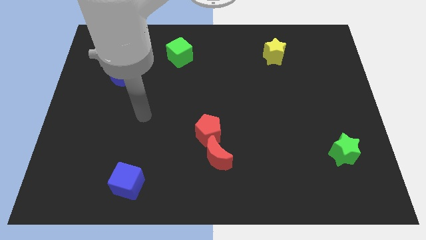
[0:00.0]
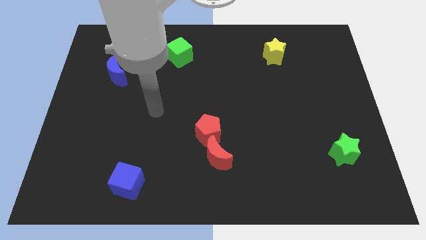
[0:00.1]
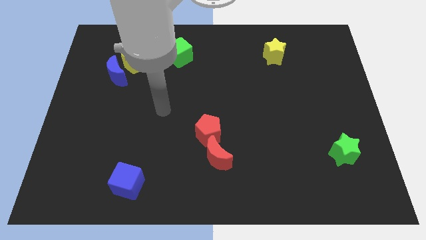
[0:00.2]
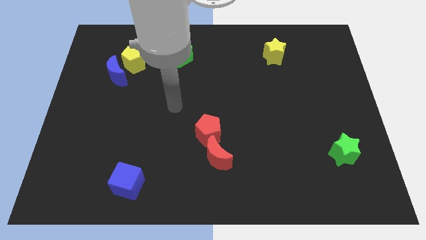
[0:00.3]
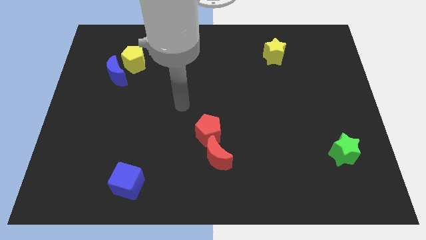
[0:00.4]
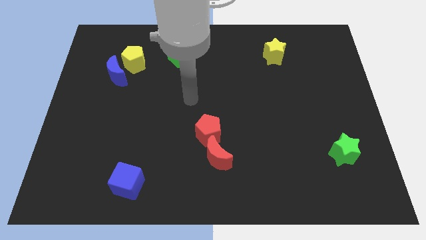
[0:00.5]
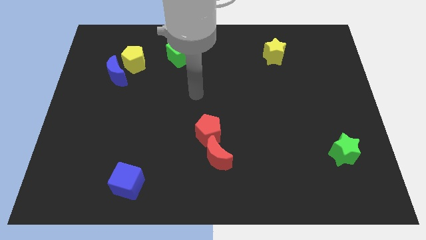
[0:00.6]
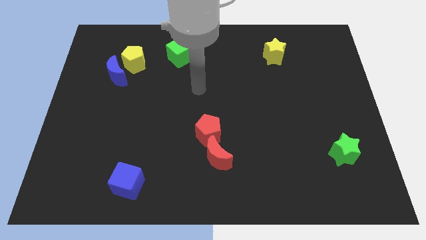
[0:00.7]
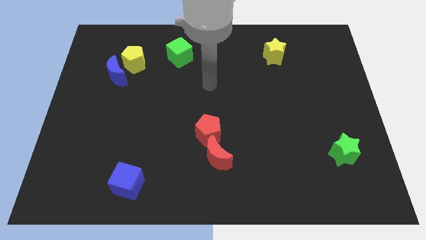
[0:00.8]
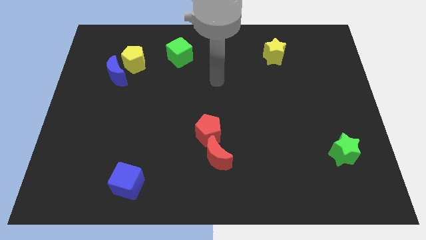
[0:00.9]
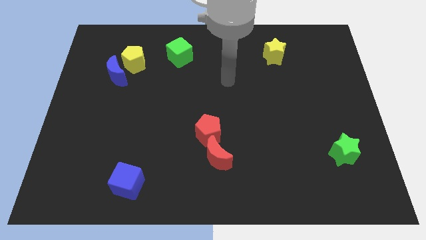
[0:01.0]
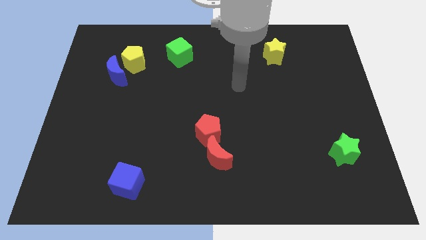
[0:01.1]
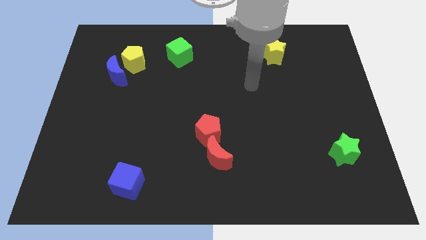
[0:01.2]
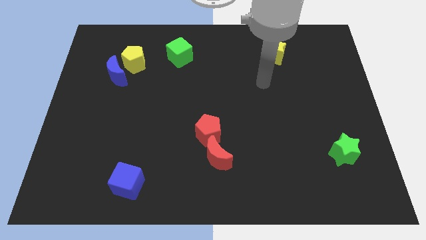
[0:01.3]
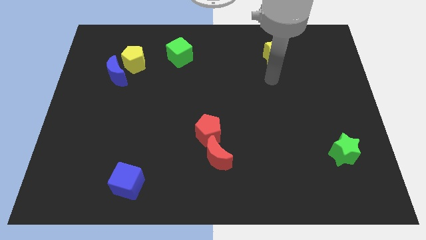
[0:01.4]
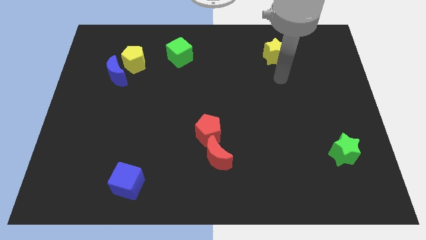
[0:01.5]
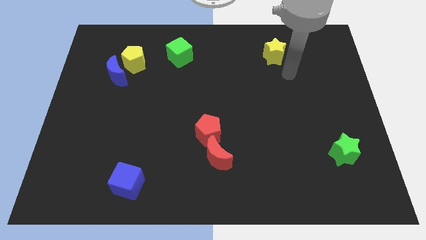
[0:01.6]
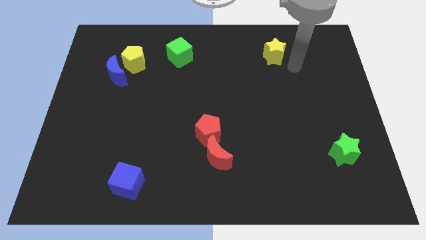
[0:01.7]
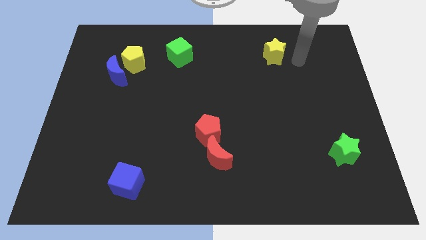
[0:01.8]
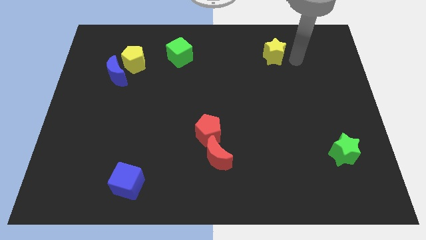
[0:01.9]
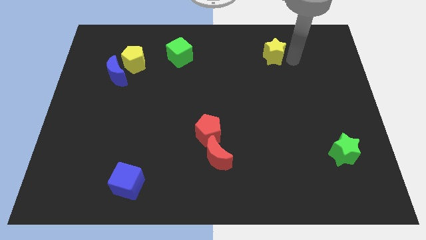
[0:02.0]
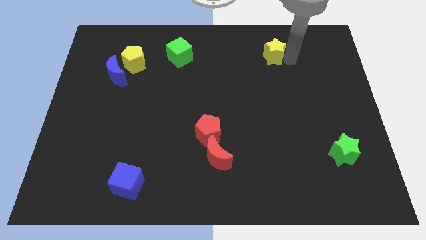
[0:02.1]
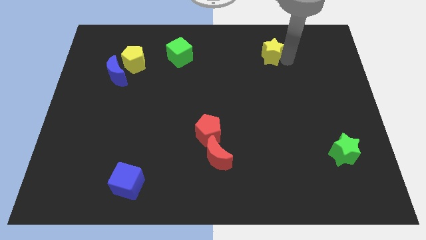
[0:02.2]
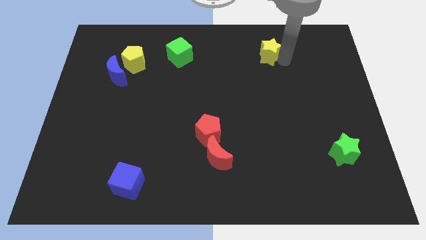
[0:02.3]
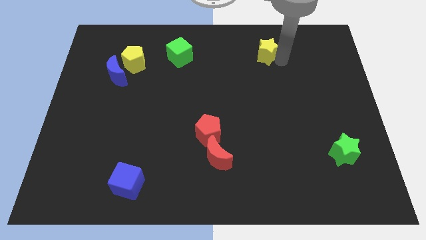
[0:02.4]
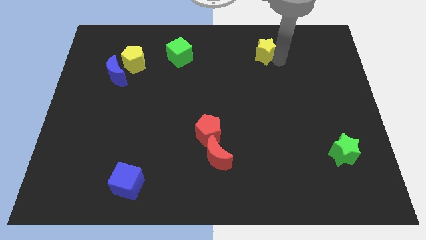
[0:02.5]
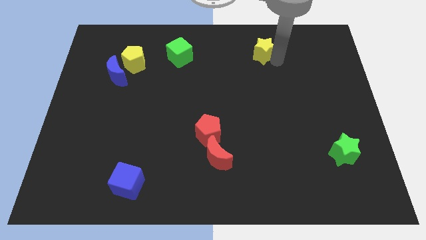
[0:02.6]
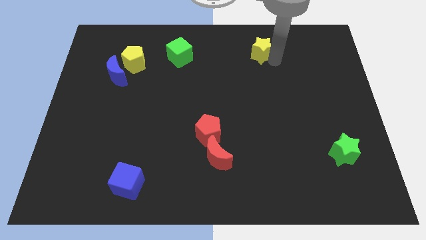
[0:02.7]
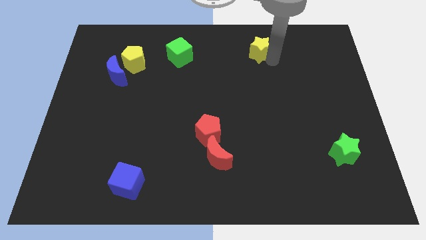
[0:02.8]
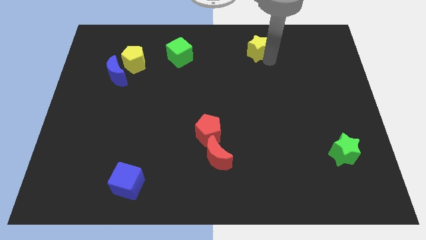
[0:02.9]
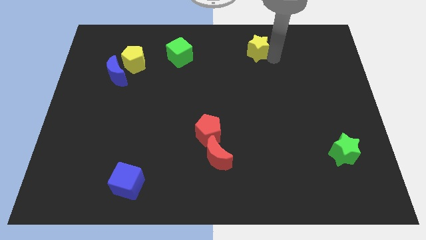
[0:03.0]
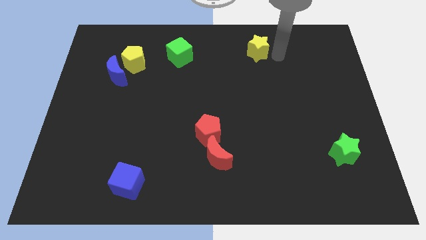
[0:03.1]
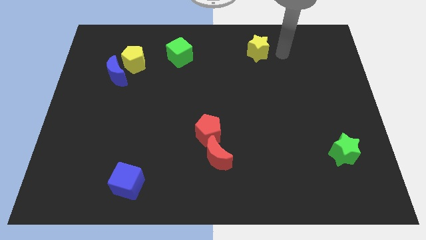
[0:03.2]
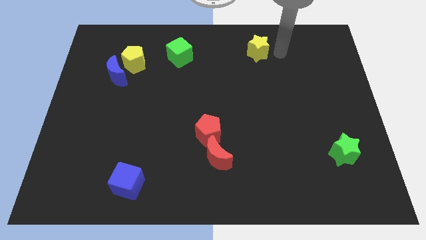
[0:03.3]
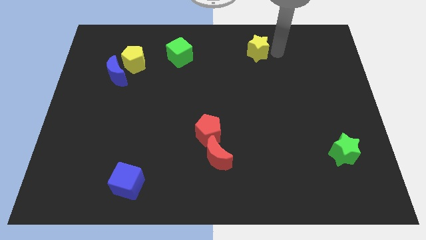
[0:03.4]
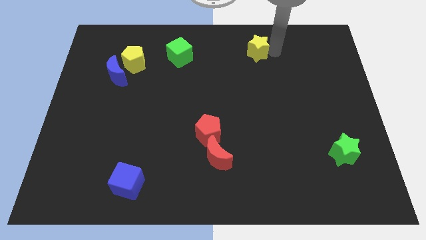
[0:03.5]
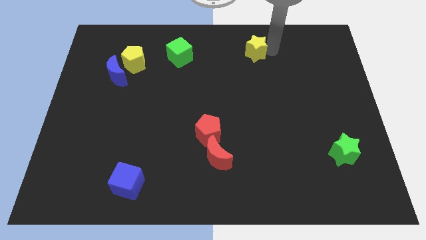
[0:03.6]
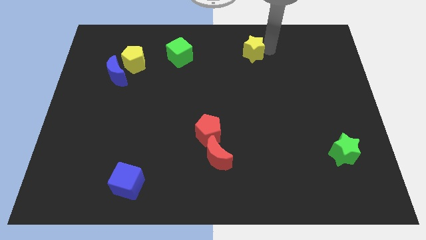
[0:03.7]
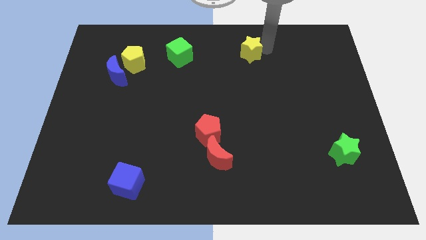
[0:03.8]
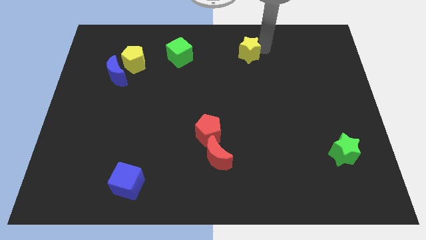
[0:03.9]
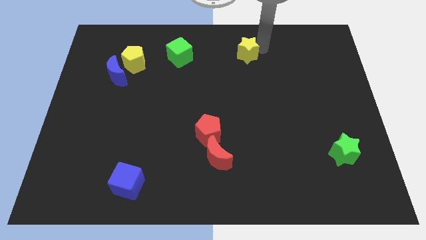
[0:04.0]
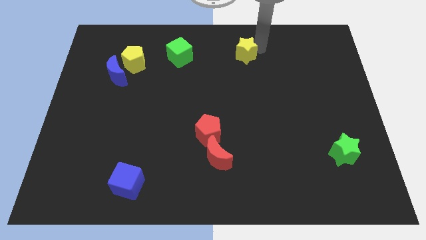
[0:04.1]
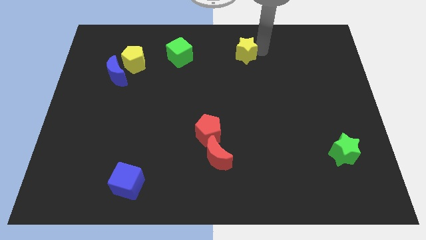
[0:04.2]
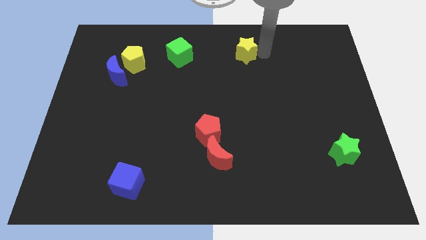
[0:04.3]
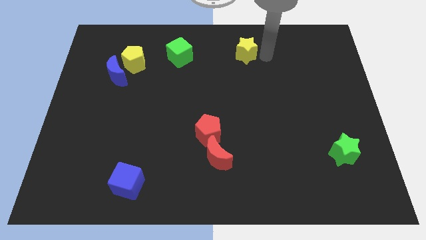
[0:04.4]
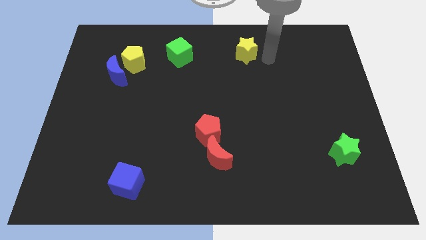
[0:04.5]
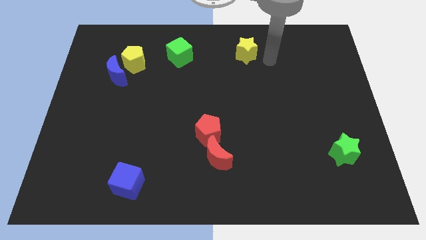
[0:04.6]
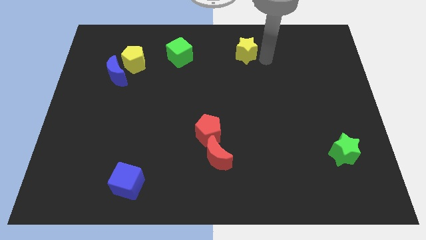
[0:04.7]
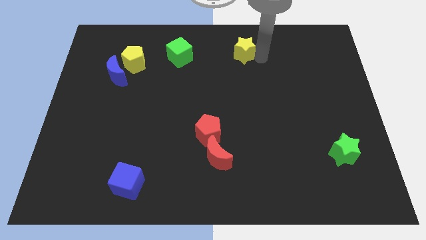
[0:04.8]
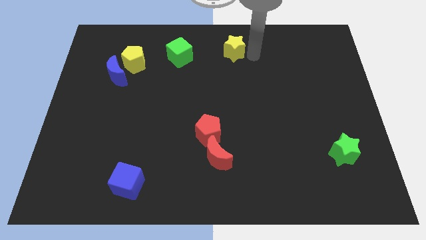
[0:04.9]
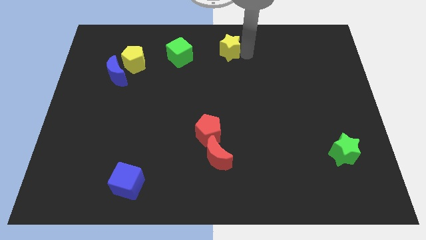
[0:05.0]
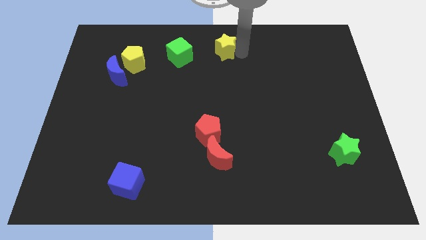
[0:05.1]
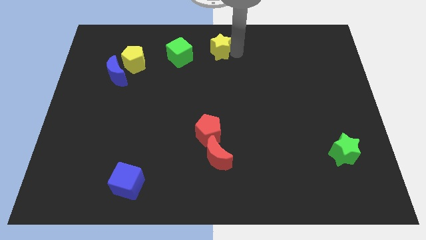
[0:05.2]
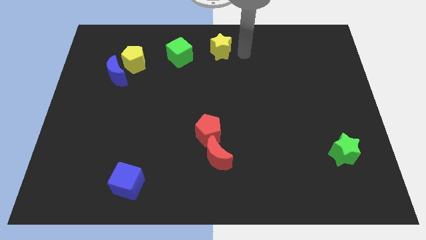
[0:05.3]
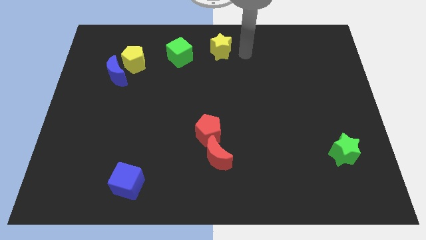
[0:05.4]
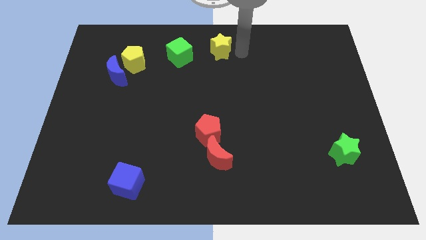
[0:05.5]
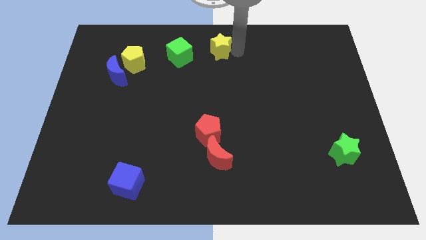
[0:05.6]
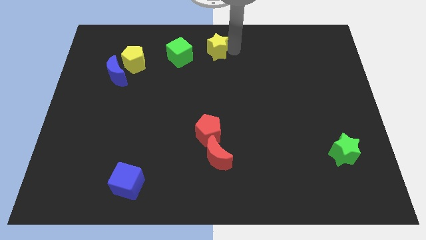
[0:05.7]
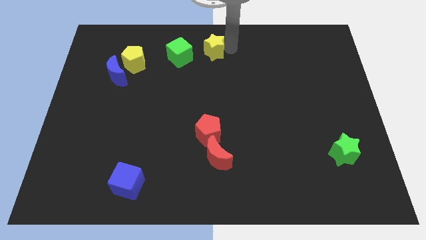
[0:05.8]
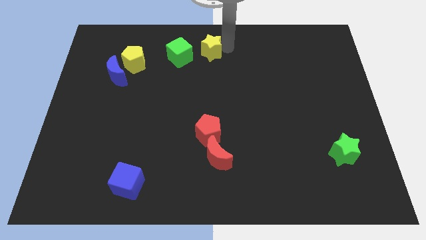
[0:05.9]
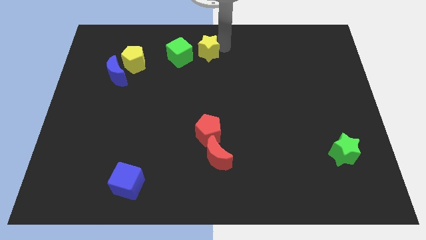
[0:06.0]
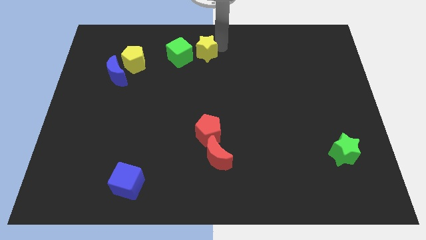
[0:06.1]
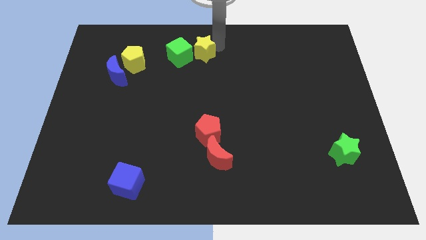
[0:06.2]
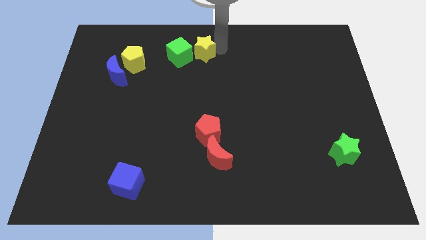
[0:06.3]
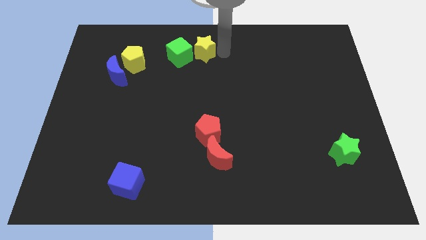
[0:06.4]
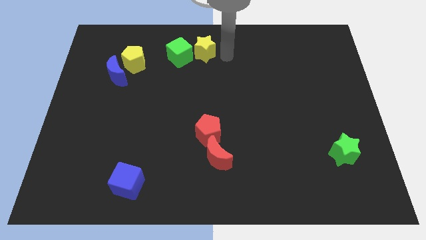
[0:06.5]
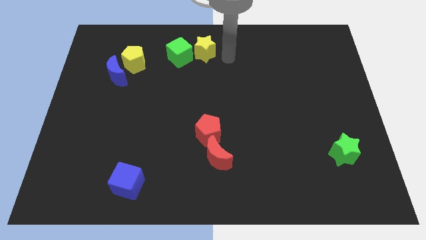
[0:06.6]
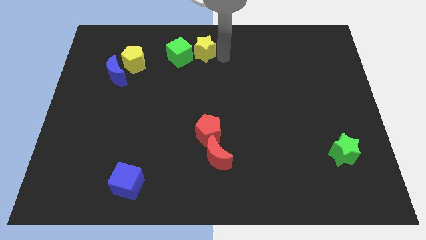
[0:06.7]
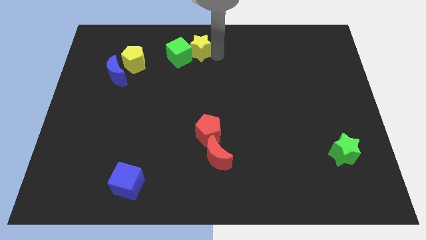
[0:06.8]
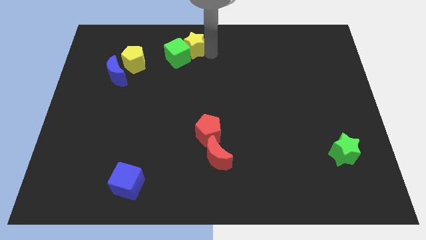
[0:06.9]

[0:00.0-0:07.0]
slide the yellow star left

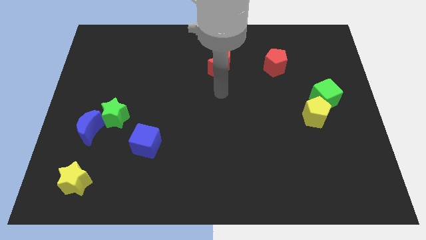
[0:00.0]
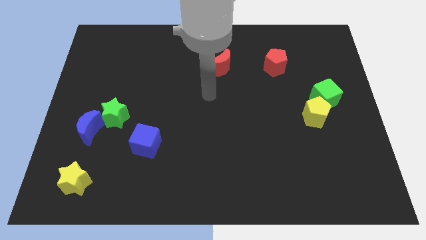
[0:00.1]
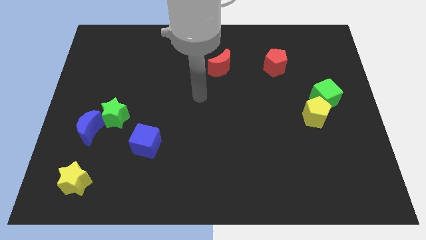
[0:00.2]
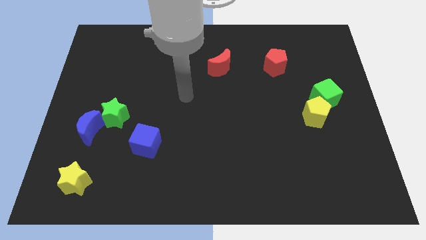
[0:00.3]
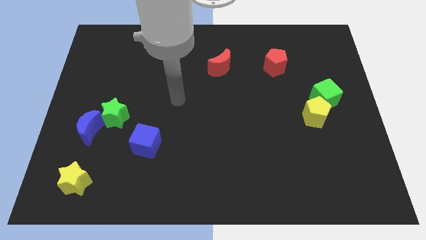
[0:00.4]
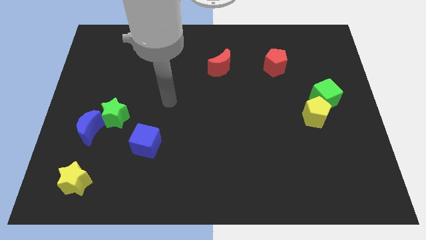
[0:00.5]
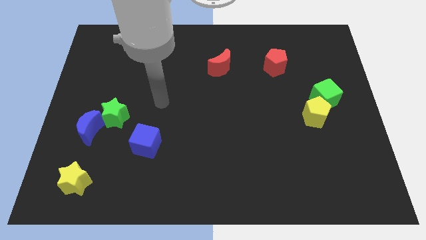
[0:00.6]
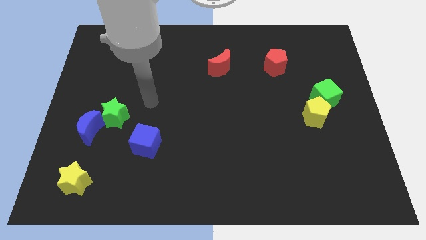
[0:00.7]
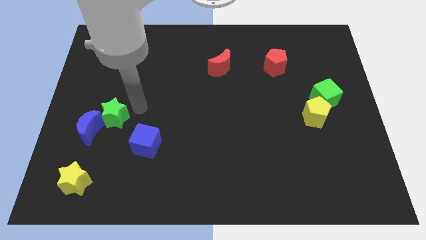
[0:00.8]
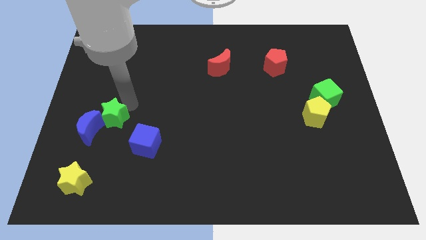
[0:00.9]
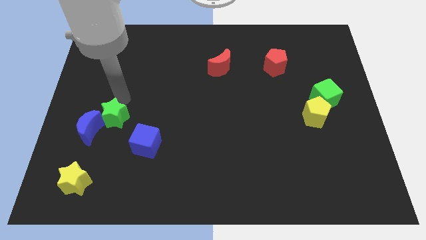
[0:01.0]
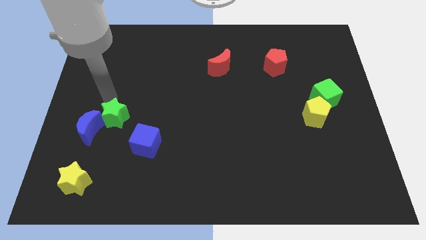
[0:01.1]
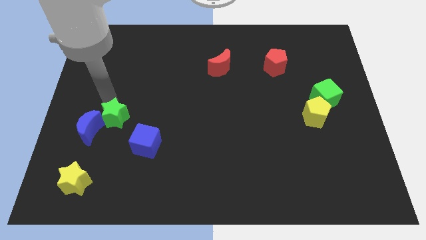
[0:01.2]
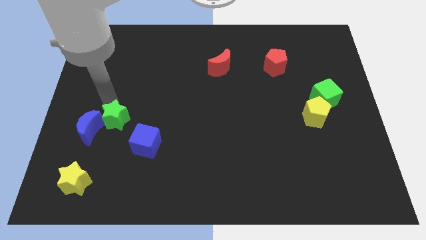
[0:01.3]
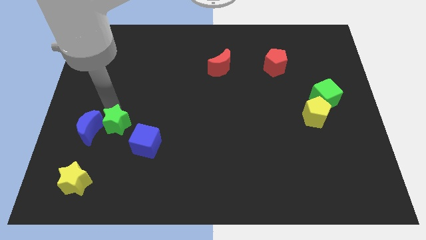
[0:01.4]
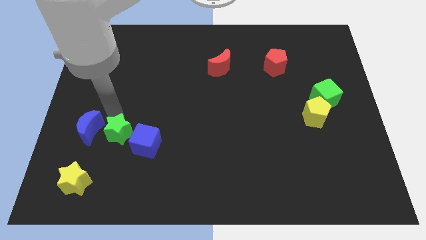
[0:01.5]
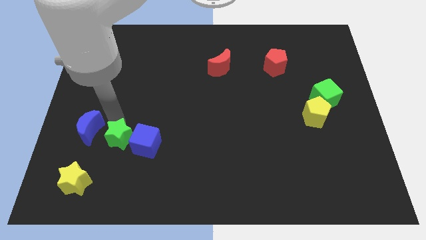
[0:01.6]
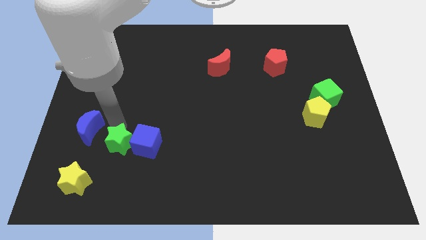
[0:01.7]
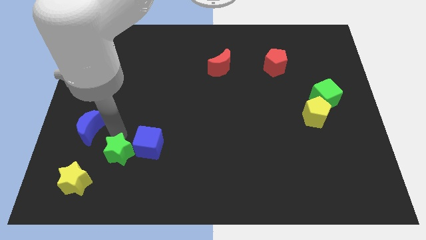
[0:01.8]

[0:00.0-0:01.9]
slide the green star a little bit diagonally down and to the right
